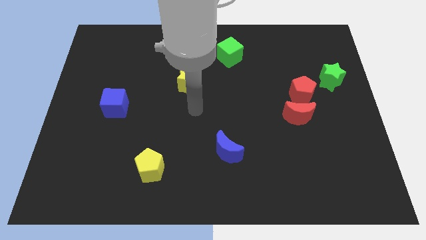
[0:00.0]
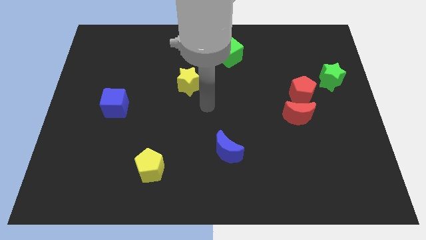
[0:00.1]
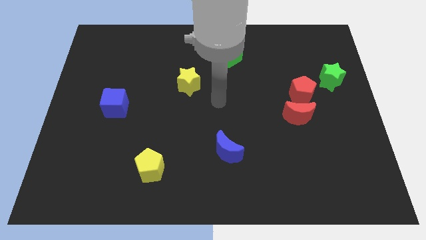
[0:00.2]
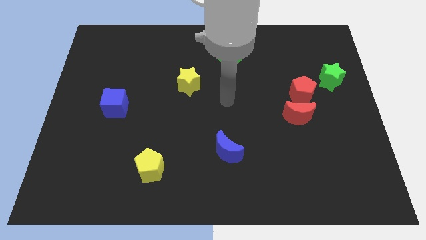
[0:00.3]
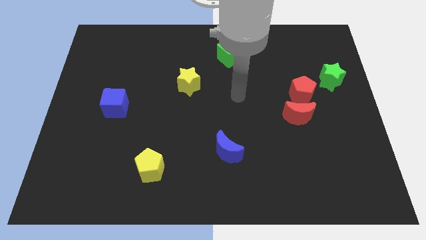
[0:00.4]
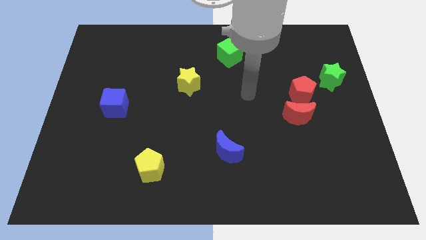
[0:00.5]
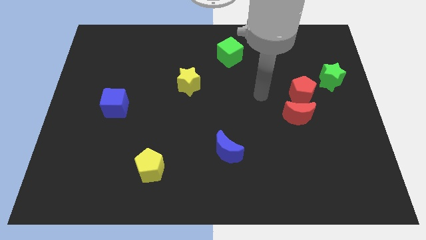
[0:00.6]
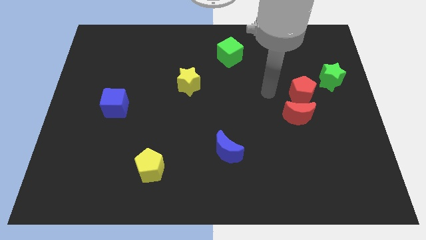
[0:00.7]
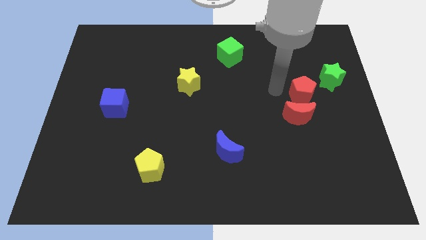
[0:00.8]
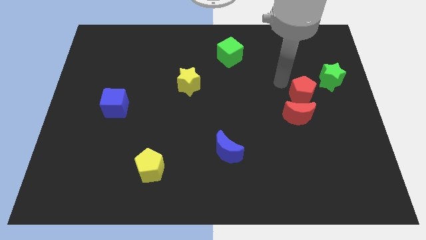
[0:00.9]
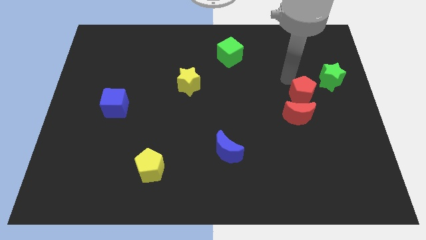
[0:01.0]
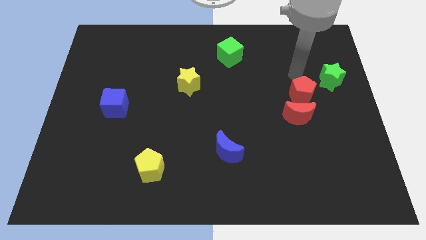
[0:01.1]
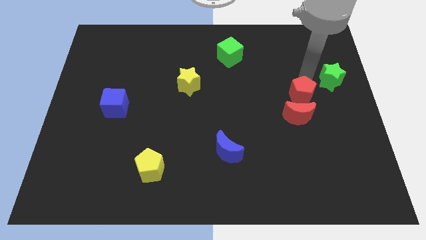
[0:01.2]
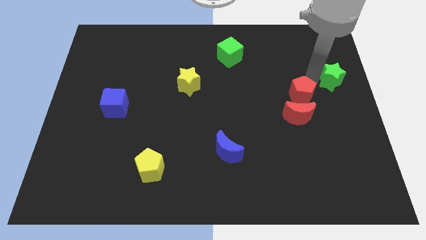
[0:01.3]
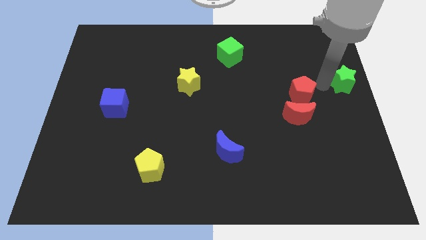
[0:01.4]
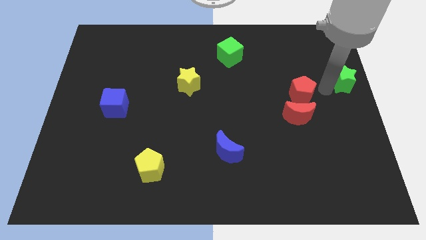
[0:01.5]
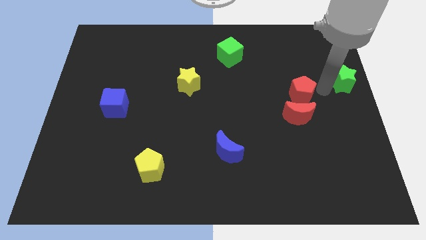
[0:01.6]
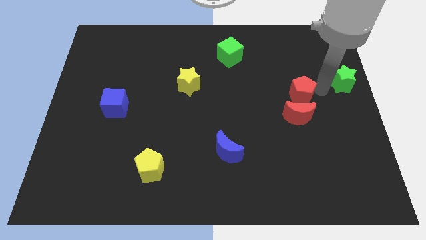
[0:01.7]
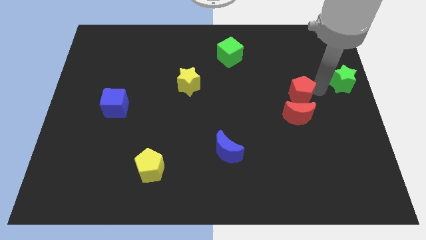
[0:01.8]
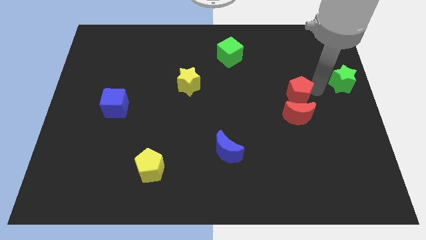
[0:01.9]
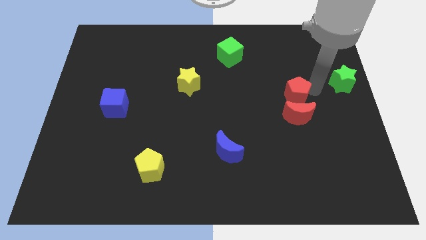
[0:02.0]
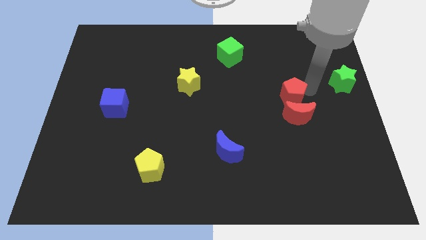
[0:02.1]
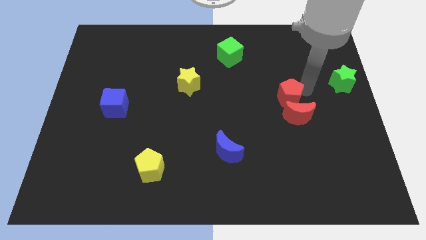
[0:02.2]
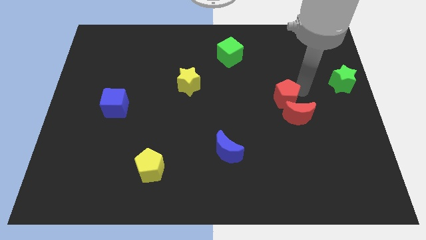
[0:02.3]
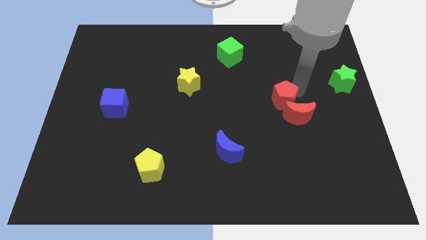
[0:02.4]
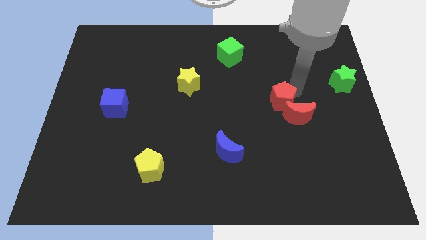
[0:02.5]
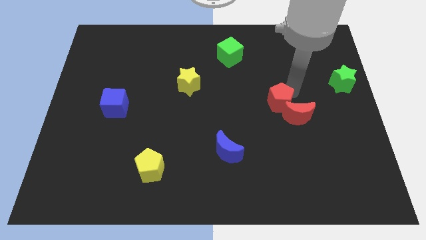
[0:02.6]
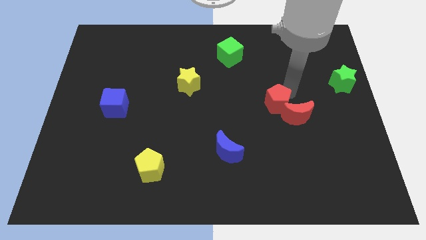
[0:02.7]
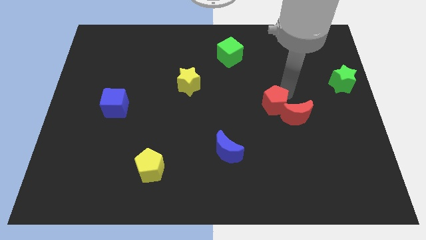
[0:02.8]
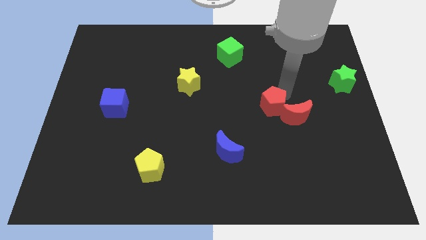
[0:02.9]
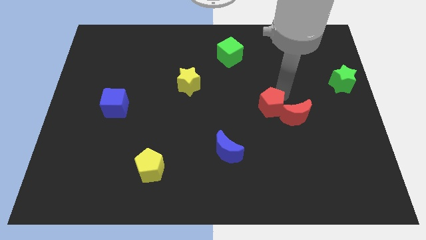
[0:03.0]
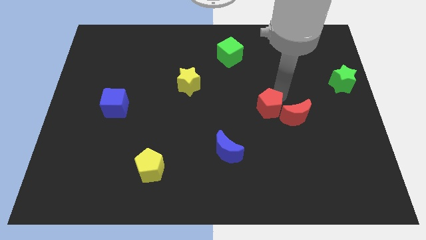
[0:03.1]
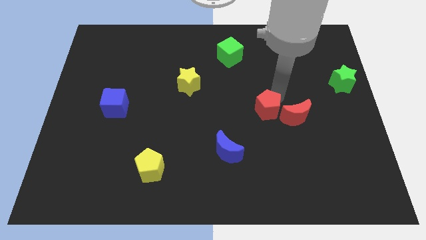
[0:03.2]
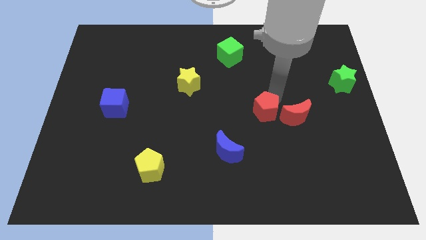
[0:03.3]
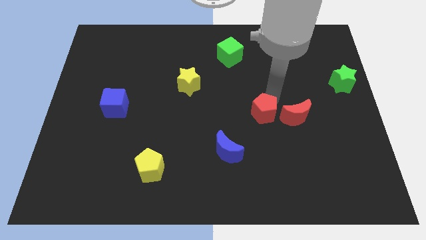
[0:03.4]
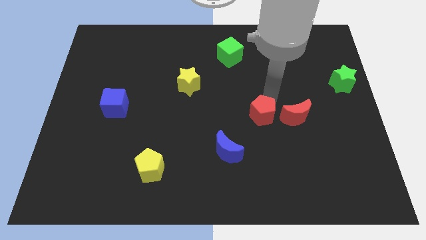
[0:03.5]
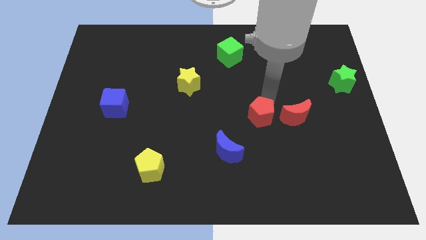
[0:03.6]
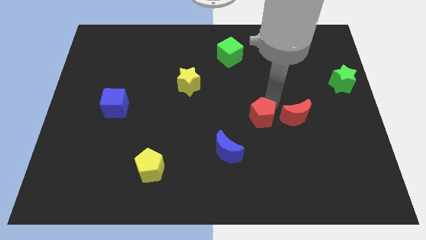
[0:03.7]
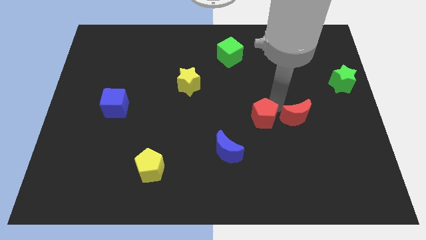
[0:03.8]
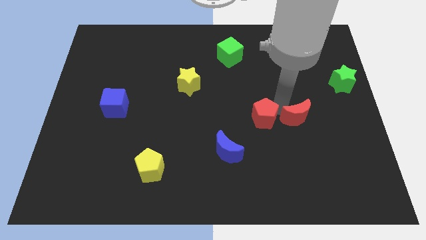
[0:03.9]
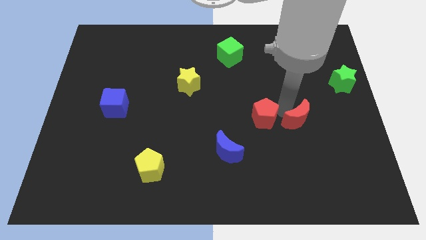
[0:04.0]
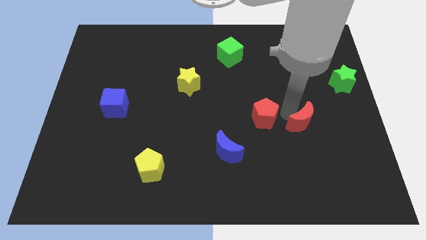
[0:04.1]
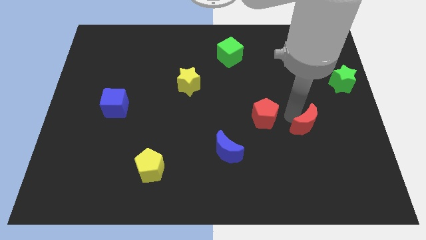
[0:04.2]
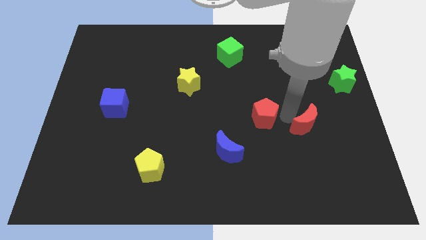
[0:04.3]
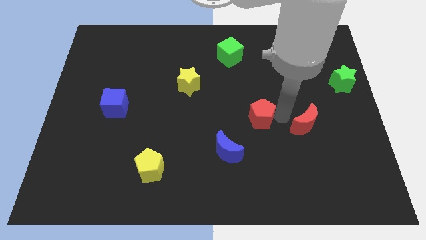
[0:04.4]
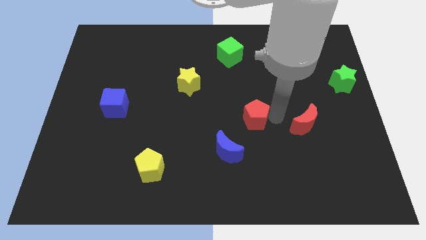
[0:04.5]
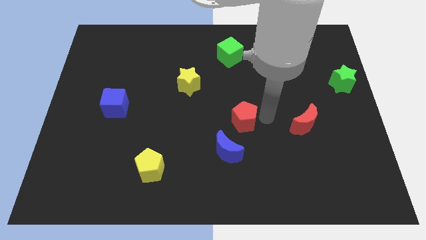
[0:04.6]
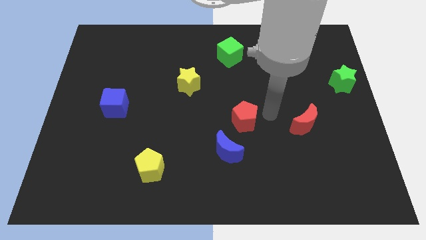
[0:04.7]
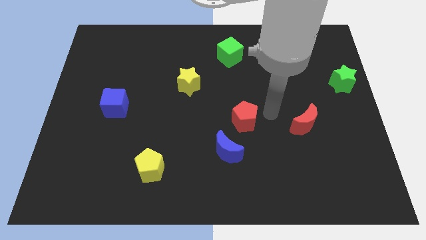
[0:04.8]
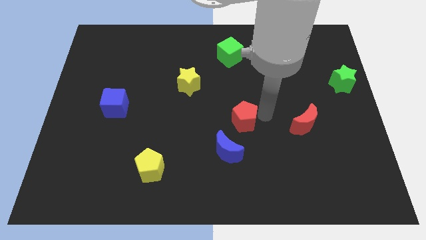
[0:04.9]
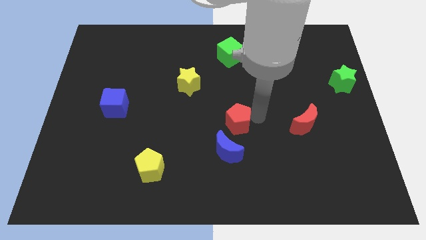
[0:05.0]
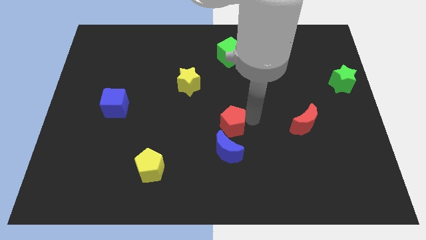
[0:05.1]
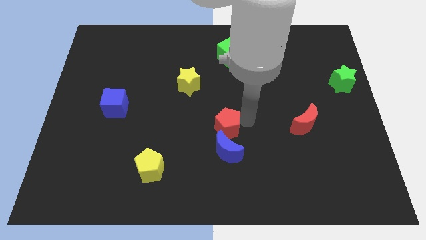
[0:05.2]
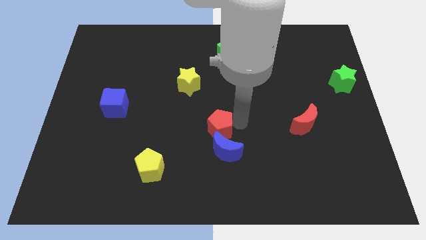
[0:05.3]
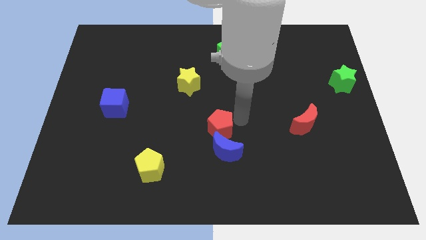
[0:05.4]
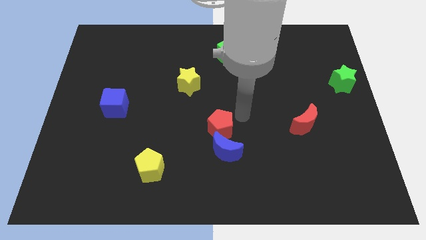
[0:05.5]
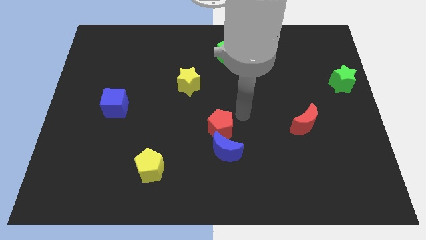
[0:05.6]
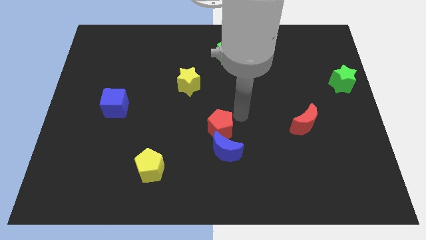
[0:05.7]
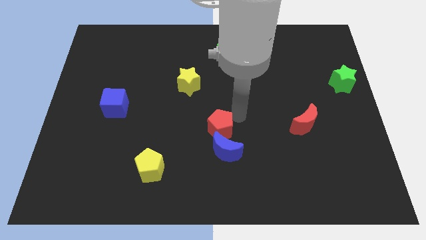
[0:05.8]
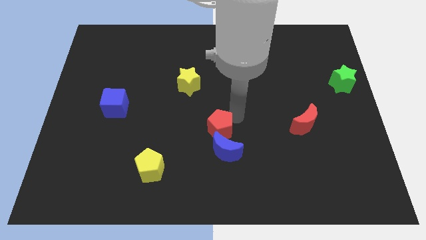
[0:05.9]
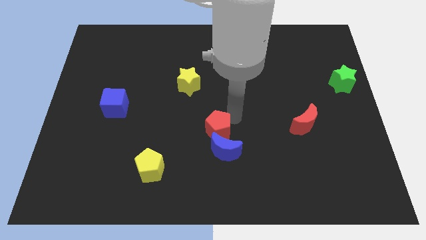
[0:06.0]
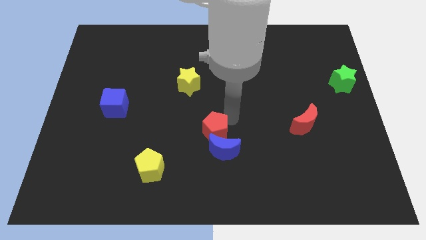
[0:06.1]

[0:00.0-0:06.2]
slide the red pentagon diagonally down and to the left

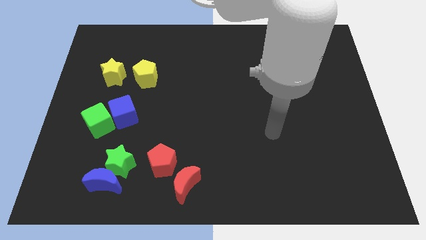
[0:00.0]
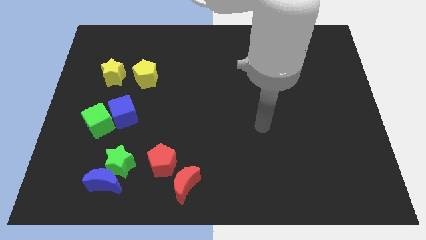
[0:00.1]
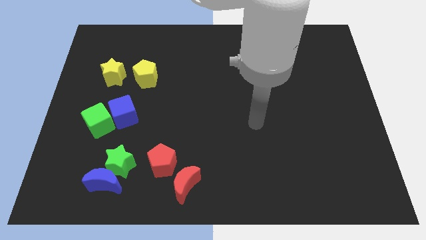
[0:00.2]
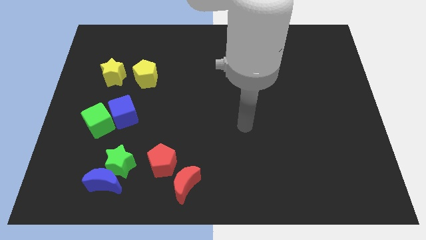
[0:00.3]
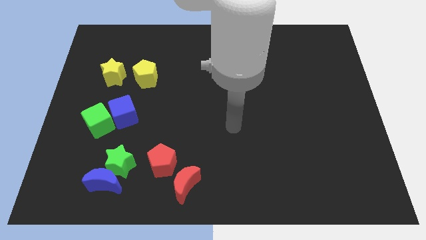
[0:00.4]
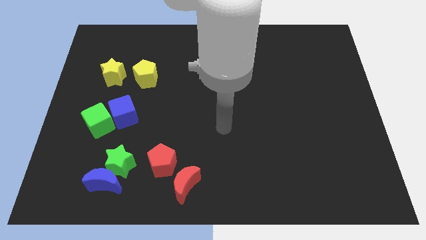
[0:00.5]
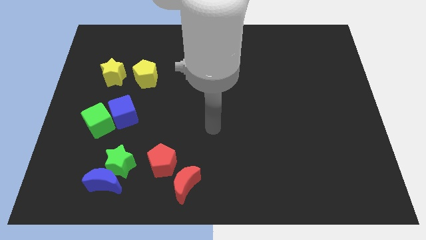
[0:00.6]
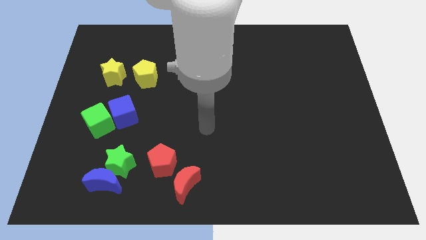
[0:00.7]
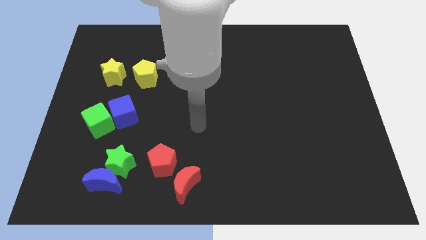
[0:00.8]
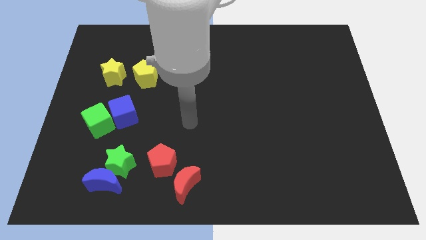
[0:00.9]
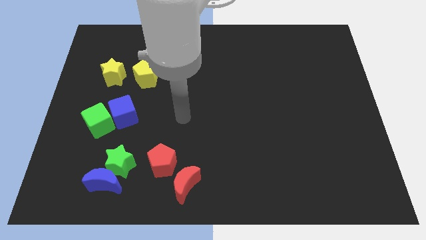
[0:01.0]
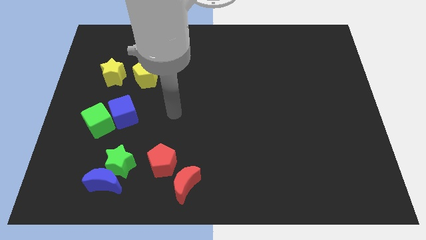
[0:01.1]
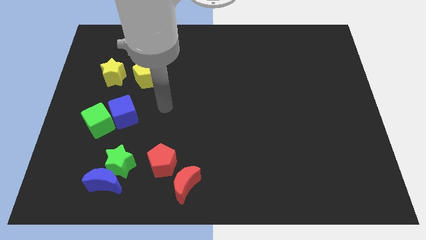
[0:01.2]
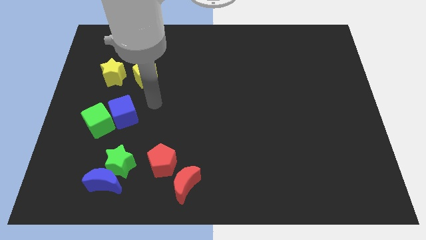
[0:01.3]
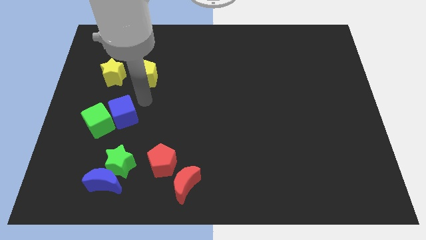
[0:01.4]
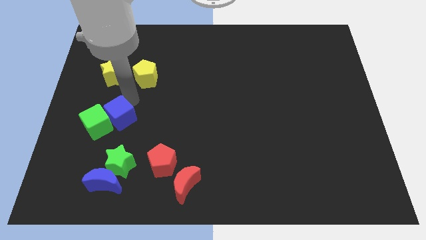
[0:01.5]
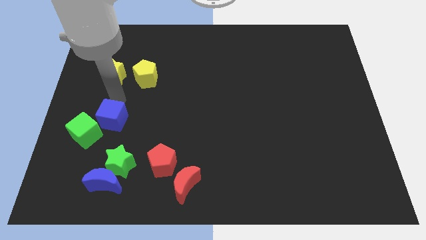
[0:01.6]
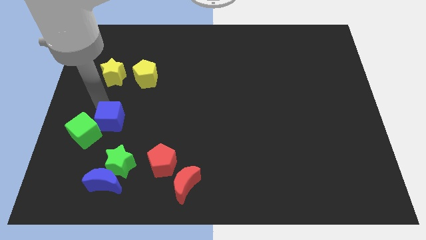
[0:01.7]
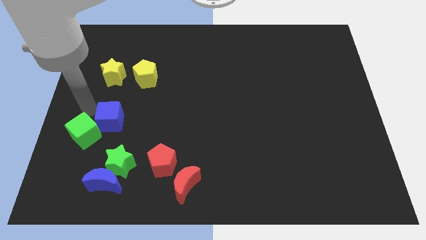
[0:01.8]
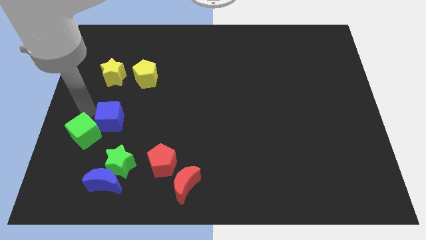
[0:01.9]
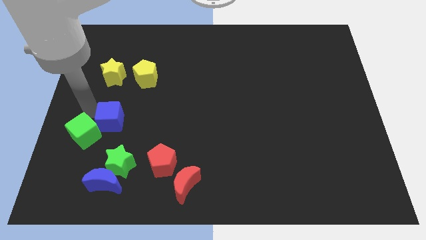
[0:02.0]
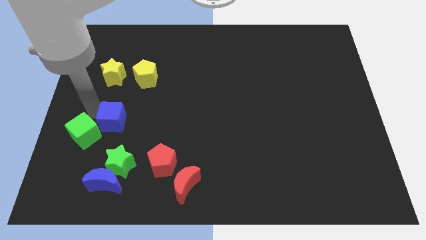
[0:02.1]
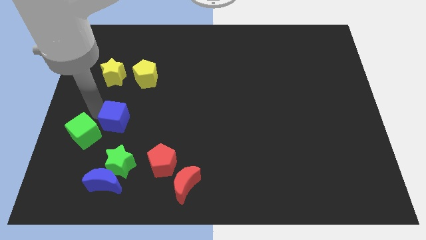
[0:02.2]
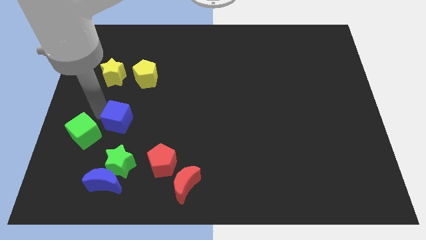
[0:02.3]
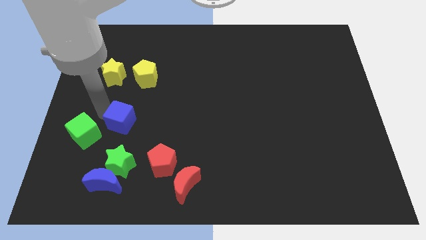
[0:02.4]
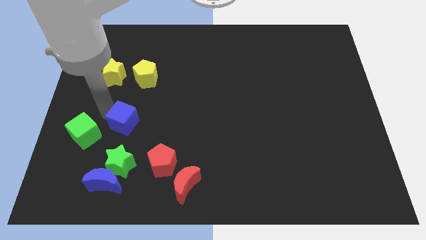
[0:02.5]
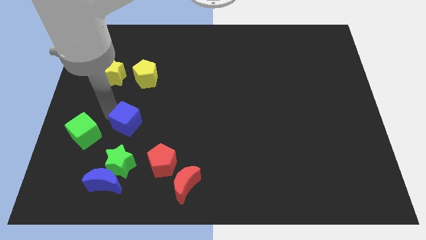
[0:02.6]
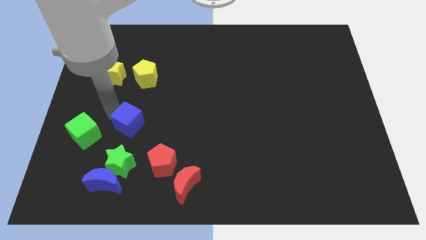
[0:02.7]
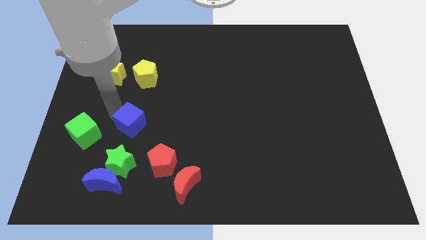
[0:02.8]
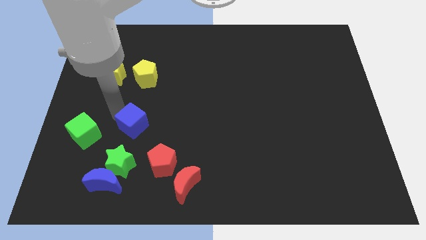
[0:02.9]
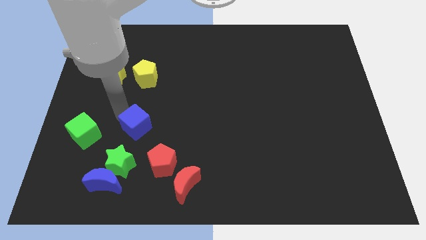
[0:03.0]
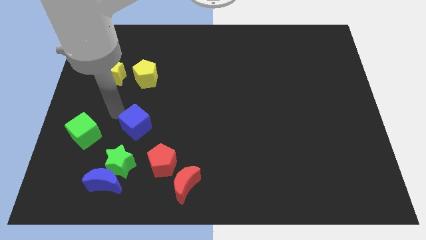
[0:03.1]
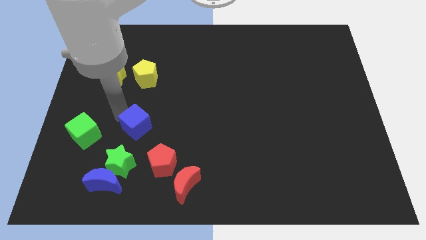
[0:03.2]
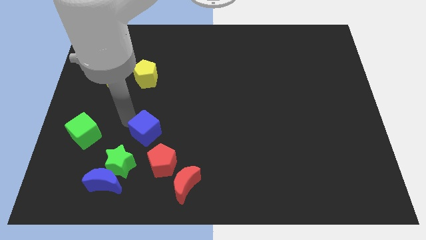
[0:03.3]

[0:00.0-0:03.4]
slightly move the blue cube downwards and then to the right
